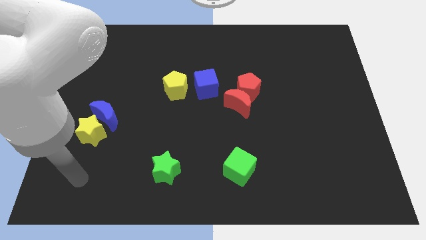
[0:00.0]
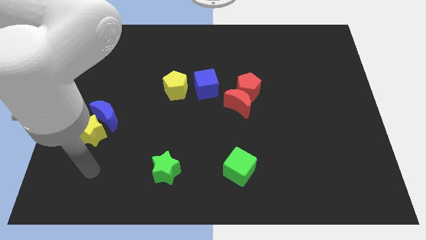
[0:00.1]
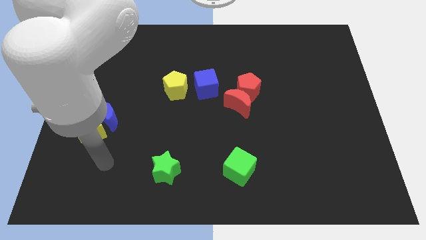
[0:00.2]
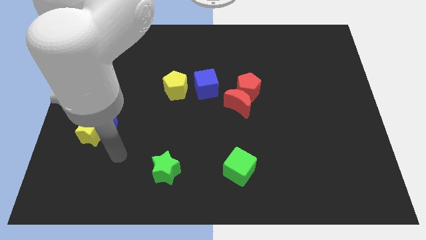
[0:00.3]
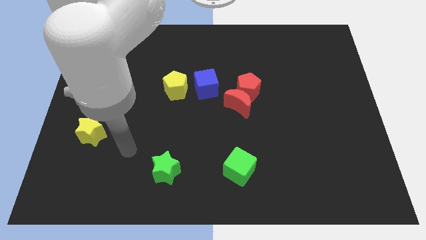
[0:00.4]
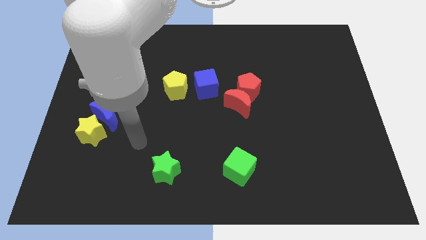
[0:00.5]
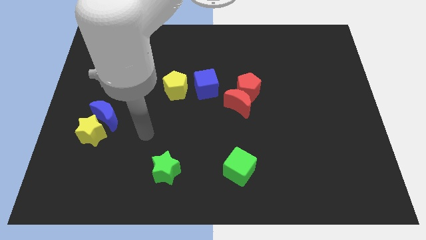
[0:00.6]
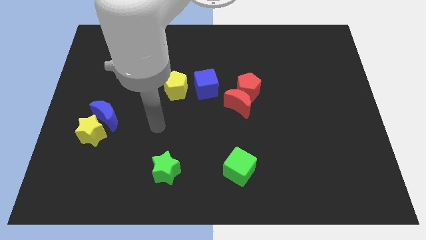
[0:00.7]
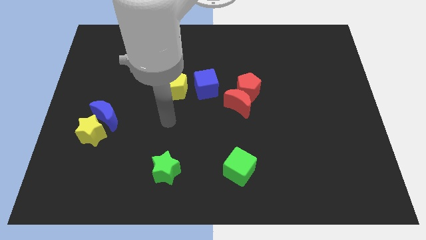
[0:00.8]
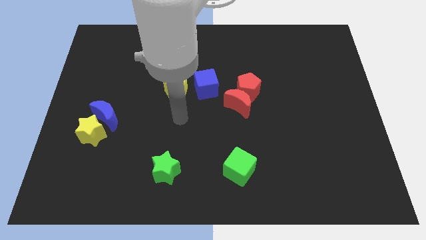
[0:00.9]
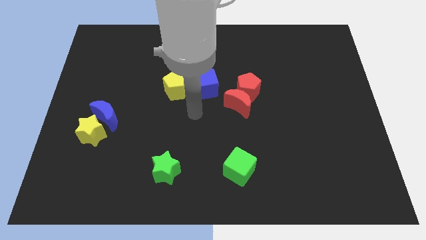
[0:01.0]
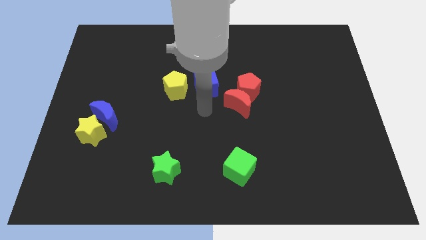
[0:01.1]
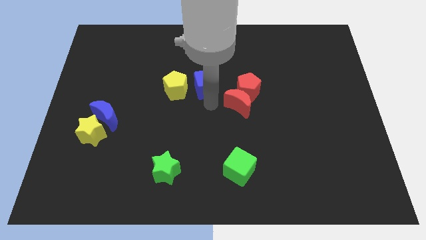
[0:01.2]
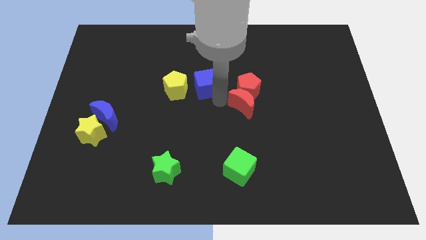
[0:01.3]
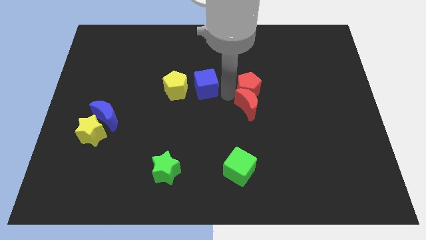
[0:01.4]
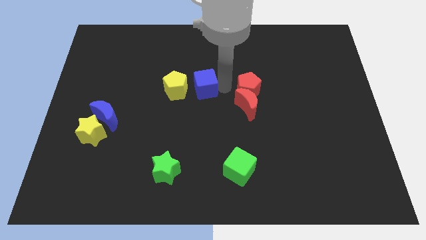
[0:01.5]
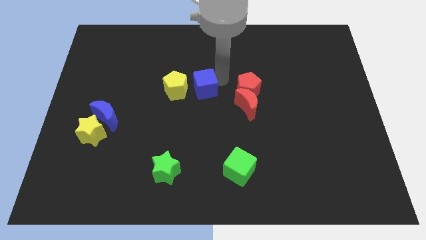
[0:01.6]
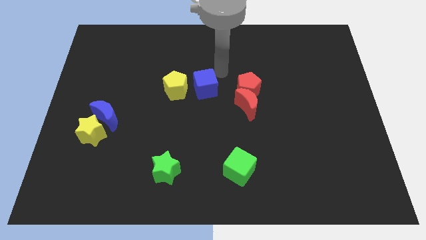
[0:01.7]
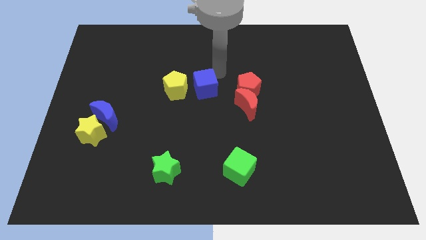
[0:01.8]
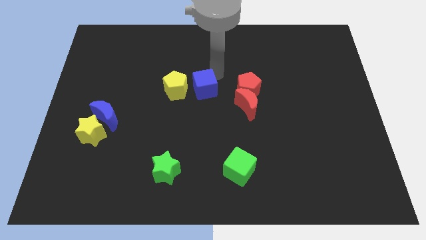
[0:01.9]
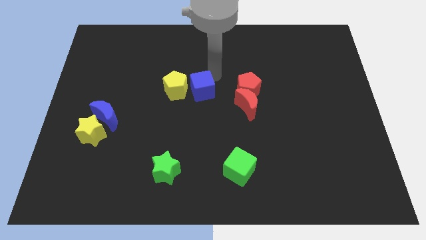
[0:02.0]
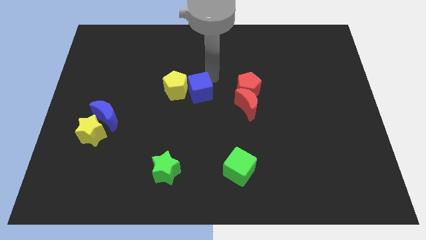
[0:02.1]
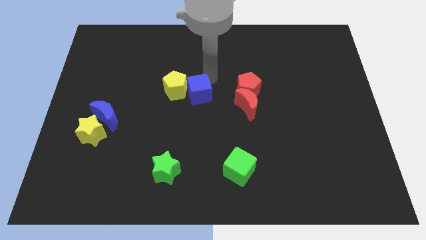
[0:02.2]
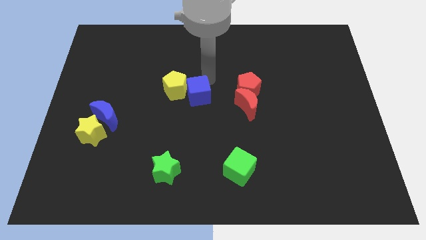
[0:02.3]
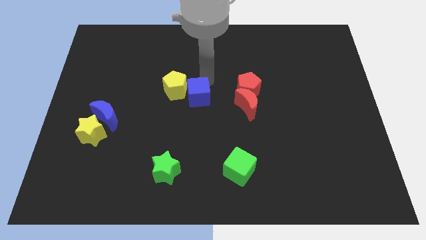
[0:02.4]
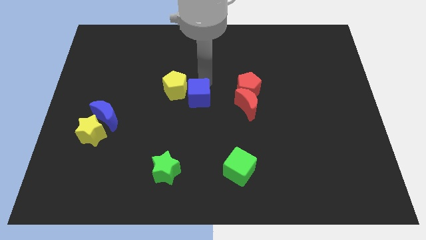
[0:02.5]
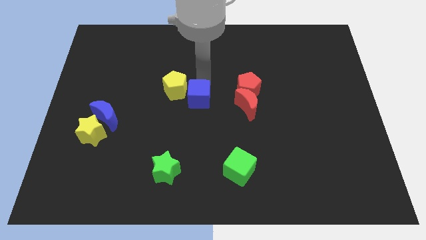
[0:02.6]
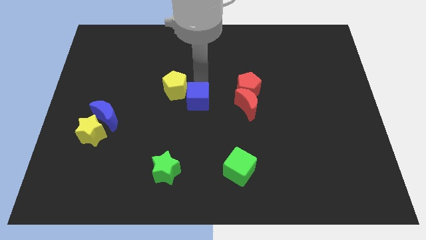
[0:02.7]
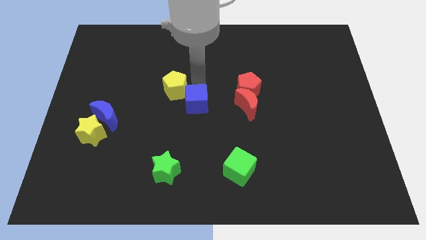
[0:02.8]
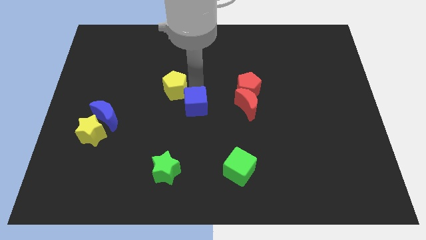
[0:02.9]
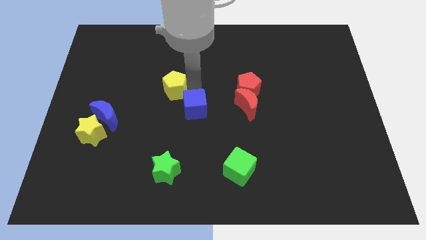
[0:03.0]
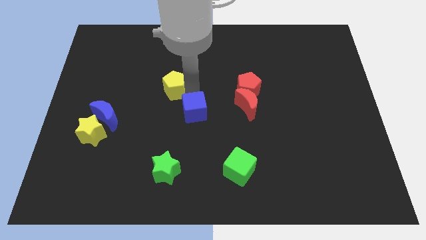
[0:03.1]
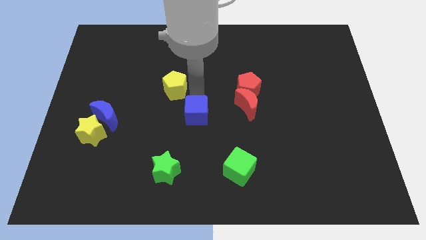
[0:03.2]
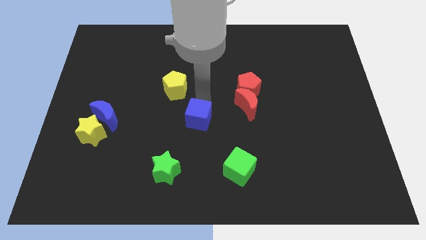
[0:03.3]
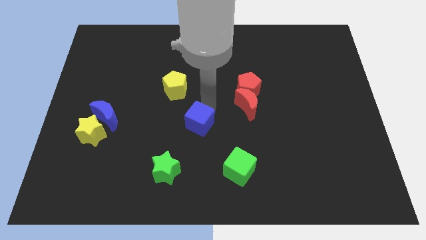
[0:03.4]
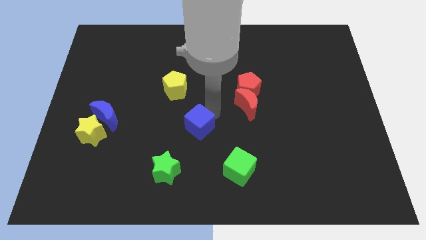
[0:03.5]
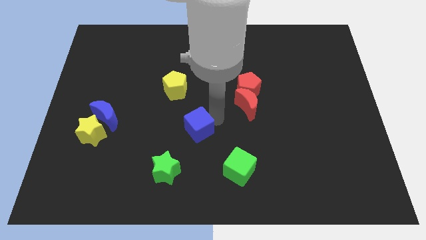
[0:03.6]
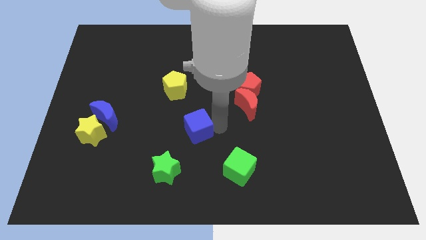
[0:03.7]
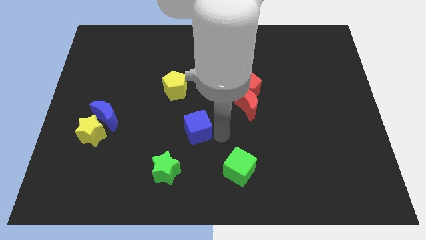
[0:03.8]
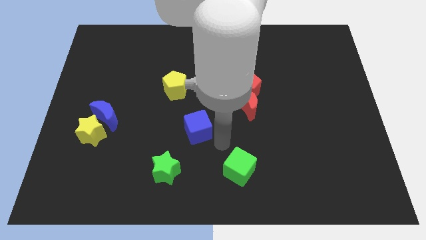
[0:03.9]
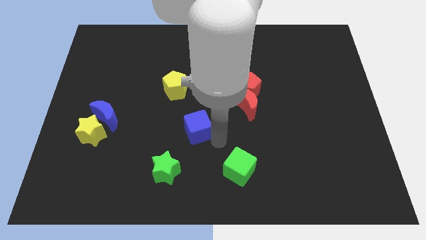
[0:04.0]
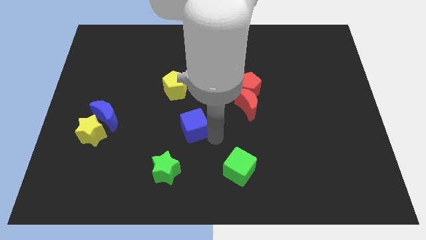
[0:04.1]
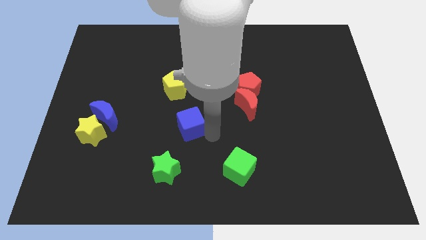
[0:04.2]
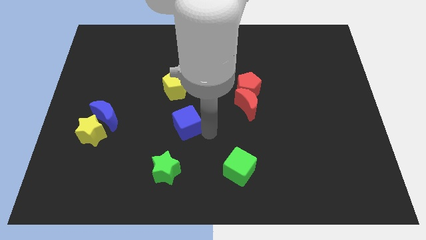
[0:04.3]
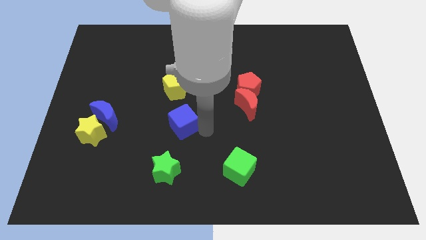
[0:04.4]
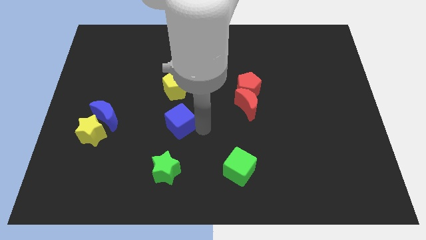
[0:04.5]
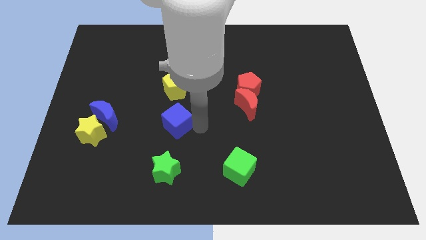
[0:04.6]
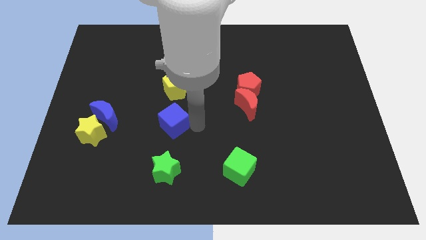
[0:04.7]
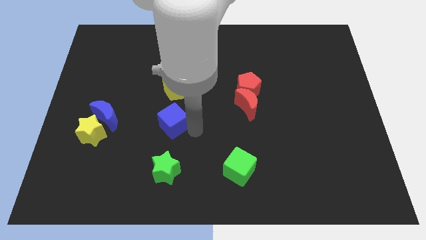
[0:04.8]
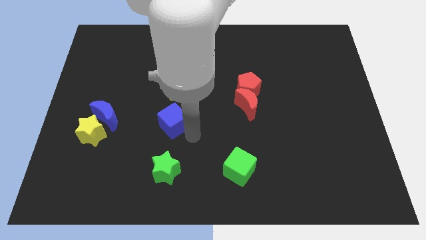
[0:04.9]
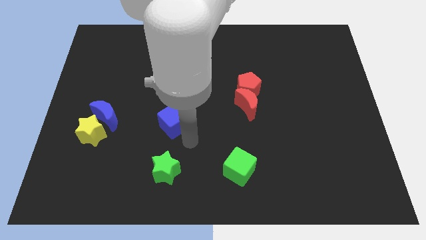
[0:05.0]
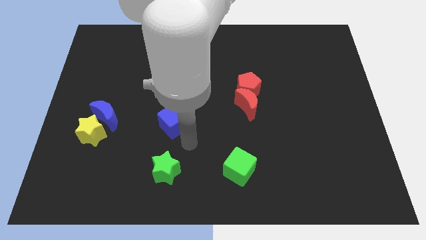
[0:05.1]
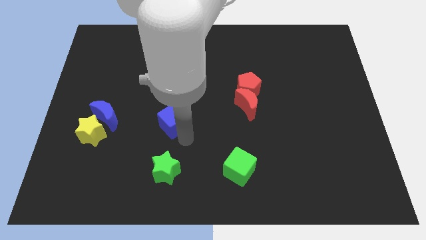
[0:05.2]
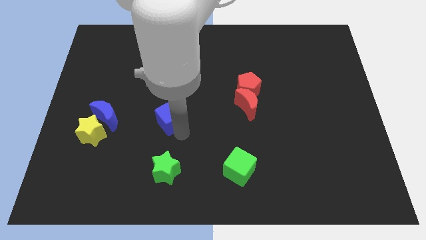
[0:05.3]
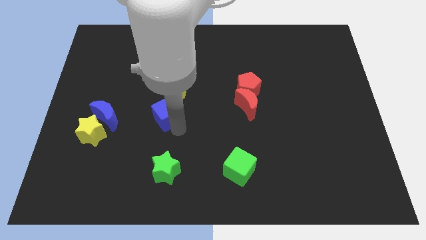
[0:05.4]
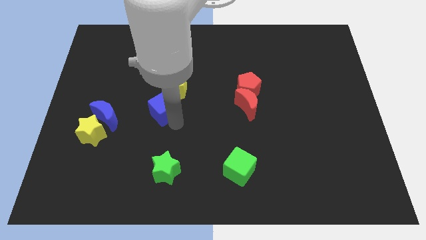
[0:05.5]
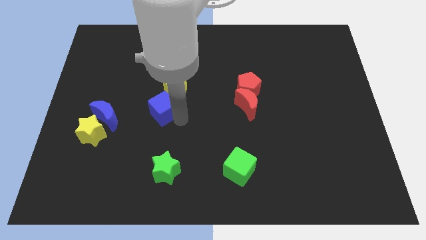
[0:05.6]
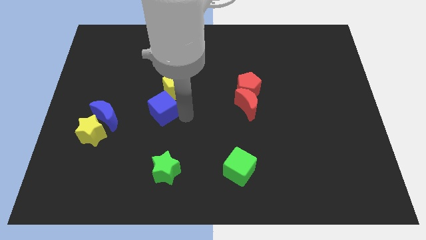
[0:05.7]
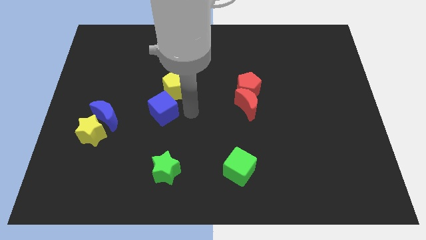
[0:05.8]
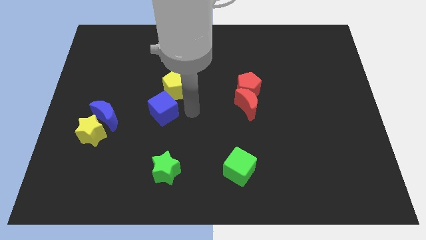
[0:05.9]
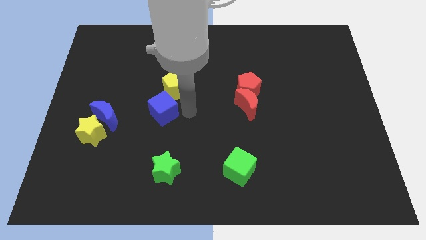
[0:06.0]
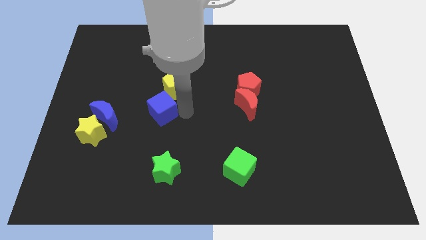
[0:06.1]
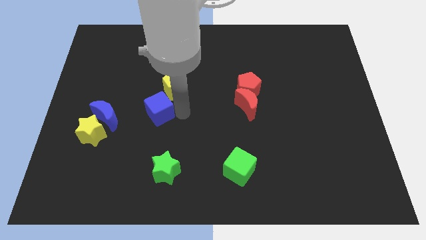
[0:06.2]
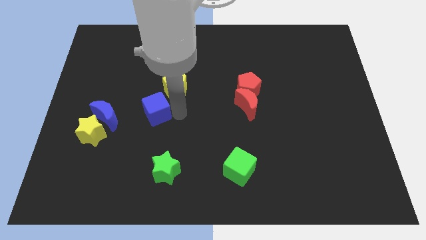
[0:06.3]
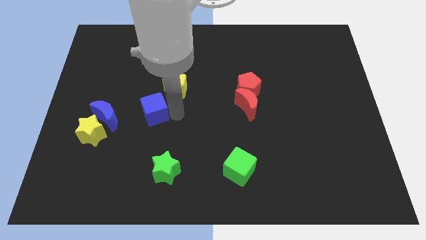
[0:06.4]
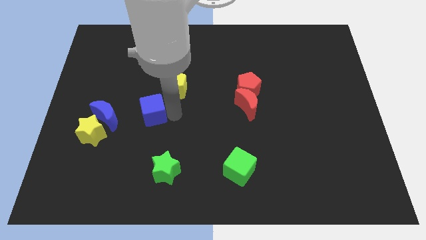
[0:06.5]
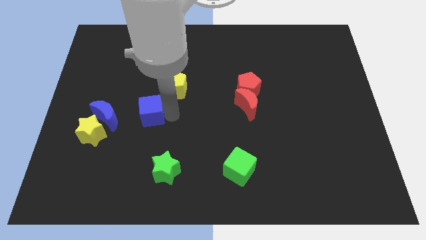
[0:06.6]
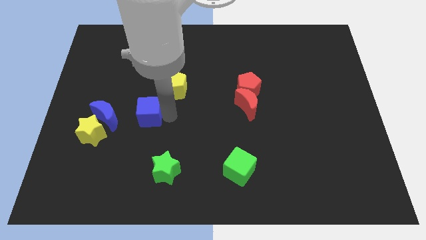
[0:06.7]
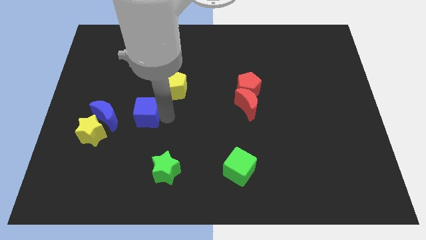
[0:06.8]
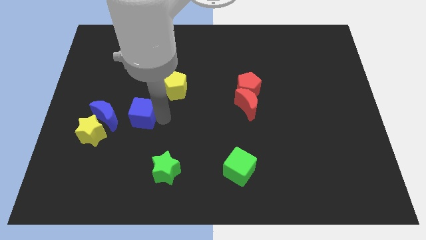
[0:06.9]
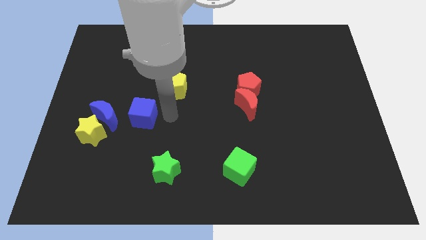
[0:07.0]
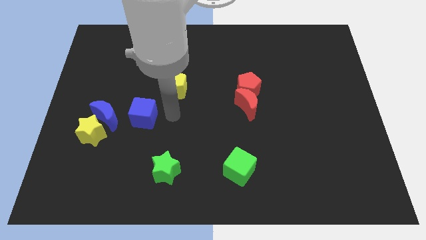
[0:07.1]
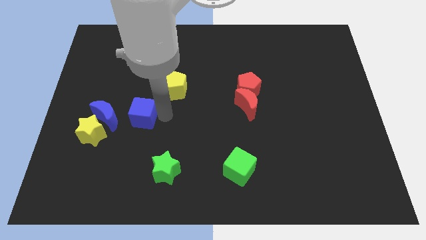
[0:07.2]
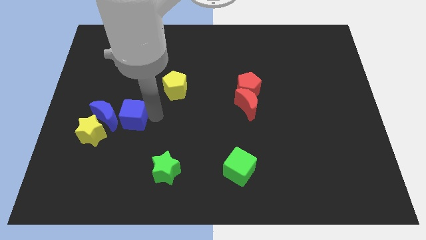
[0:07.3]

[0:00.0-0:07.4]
slide the blue cube next to the blue moon
